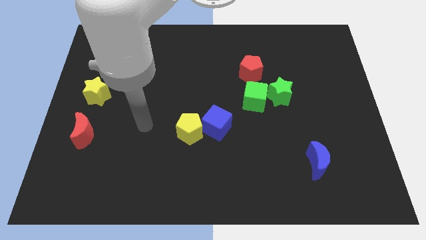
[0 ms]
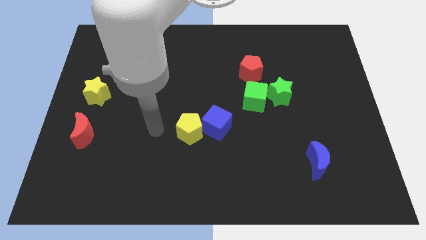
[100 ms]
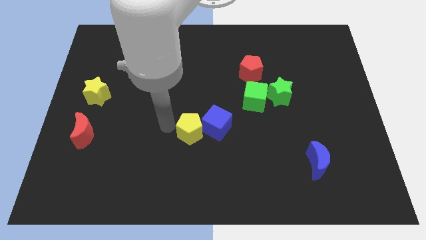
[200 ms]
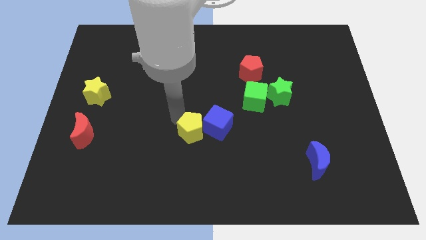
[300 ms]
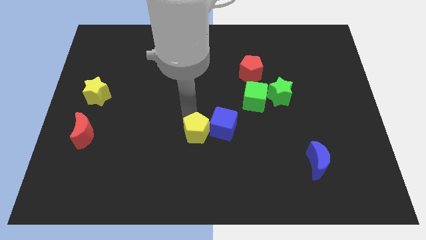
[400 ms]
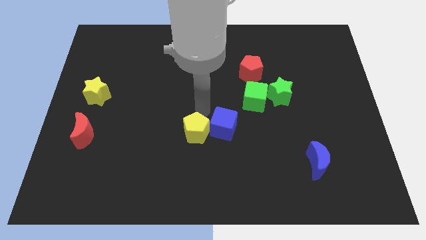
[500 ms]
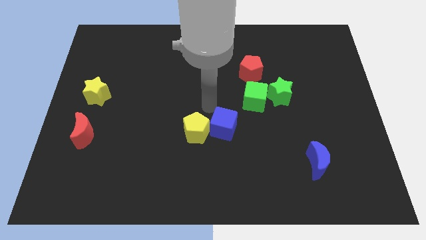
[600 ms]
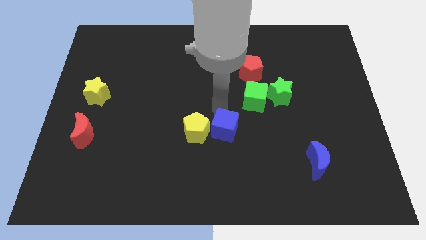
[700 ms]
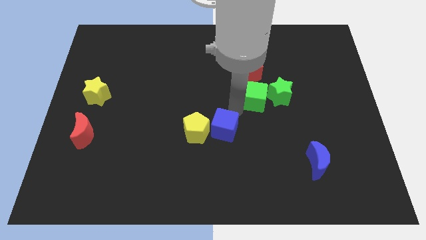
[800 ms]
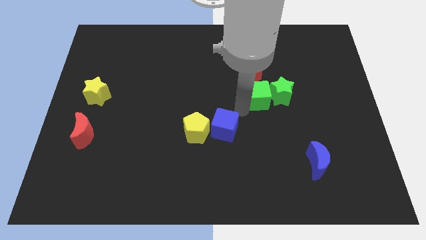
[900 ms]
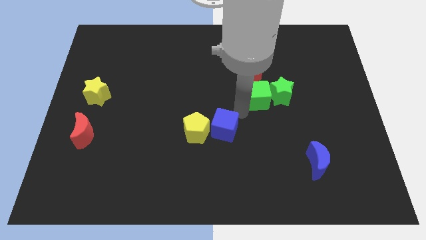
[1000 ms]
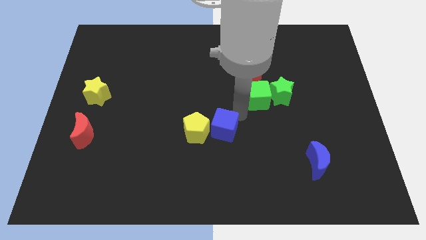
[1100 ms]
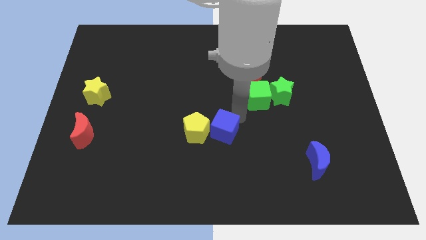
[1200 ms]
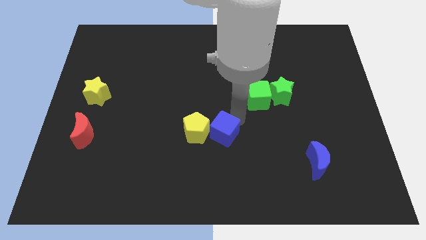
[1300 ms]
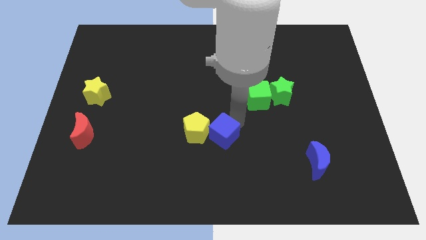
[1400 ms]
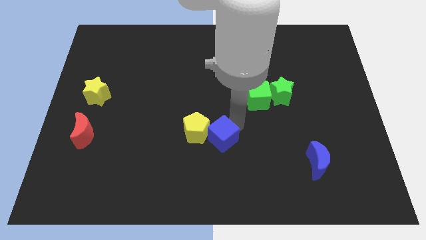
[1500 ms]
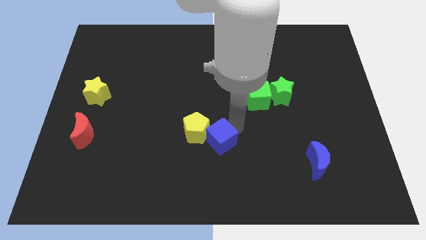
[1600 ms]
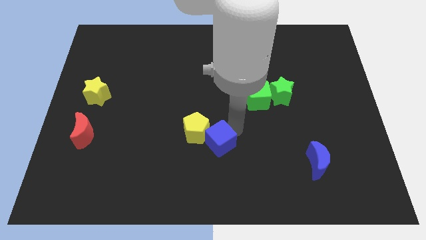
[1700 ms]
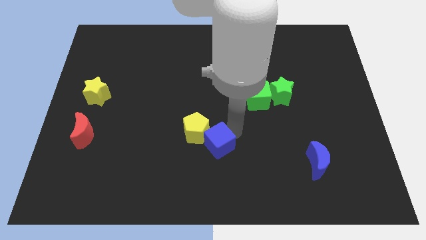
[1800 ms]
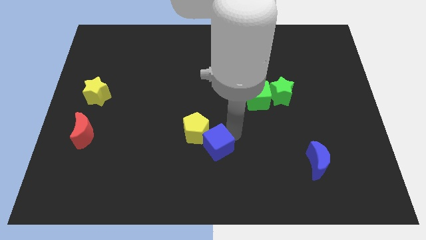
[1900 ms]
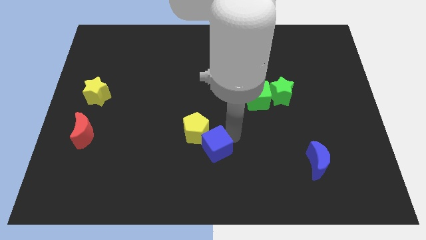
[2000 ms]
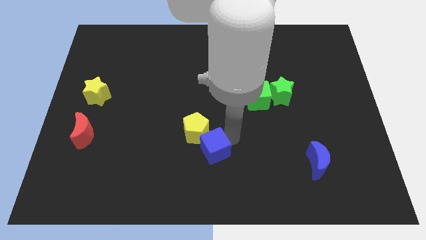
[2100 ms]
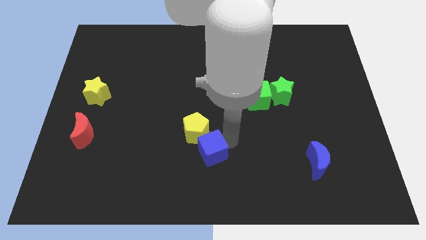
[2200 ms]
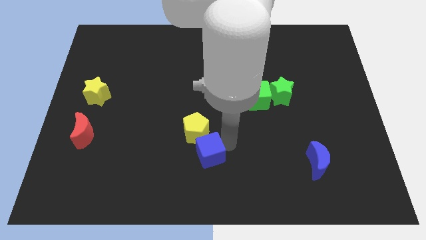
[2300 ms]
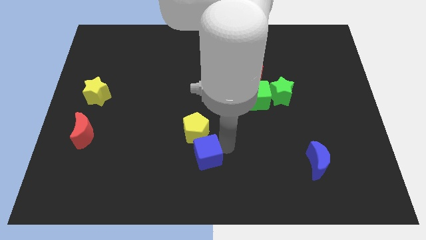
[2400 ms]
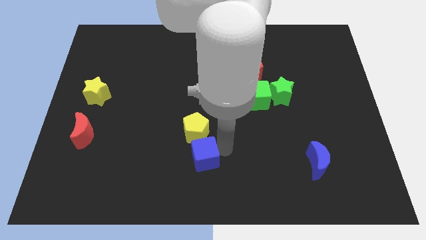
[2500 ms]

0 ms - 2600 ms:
push the blue cube down and to the left diagonally a little bit

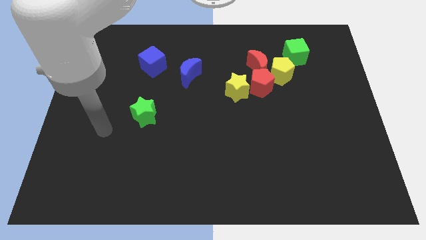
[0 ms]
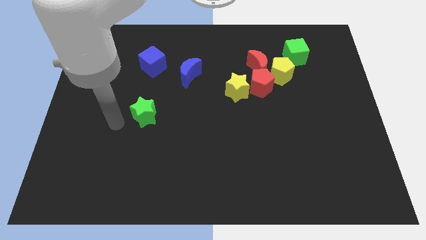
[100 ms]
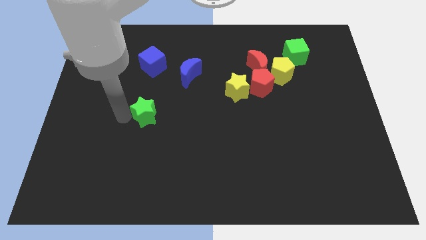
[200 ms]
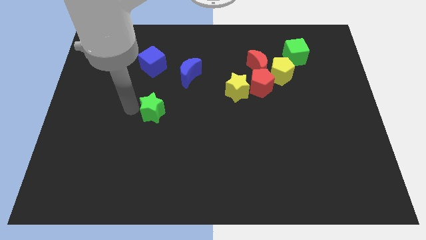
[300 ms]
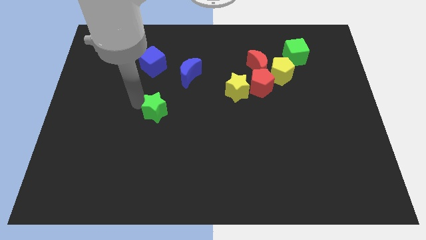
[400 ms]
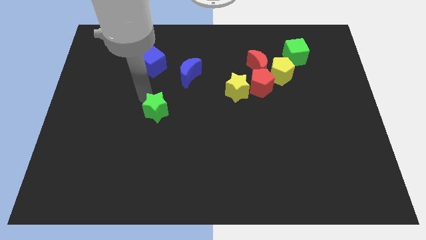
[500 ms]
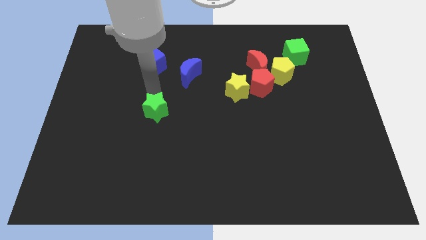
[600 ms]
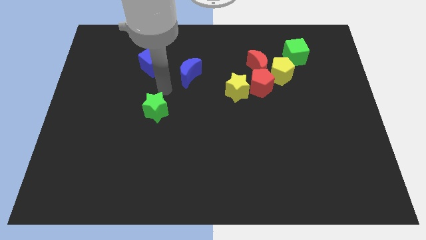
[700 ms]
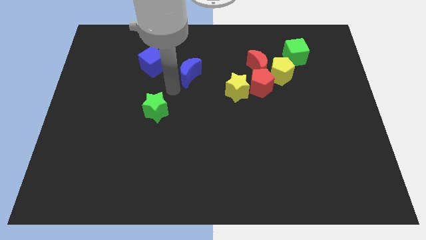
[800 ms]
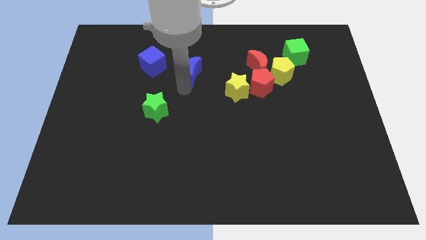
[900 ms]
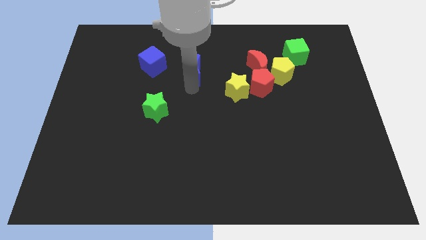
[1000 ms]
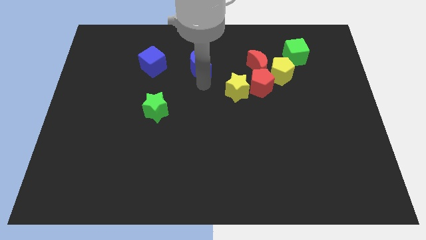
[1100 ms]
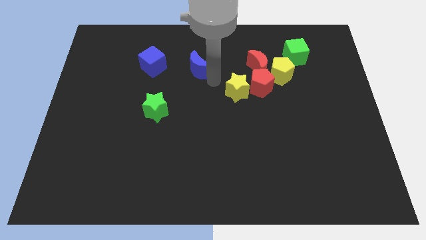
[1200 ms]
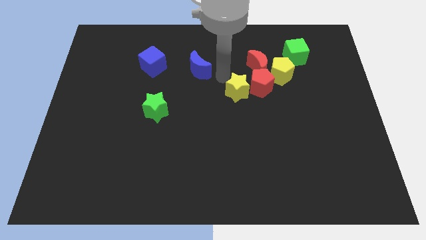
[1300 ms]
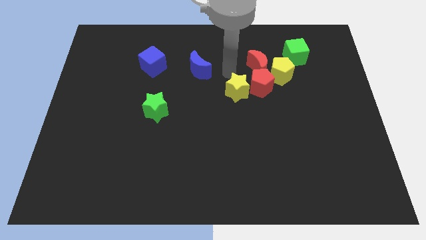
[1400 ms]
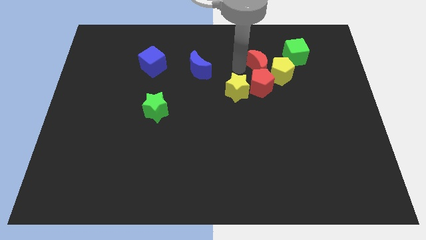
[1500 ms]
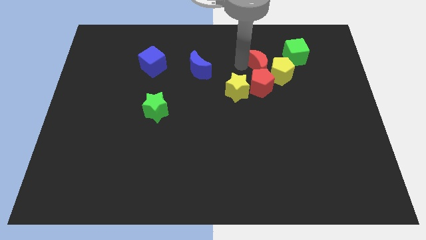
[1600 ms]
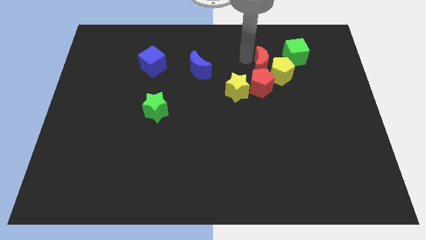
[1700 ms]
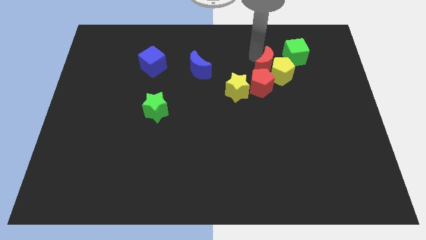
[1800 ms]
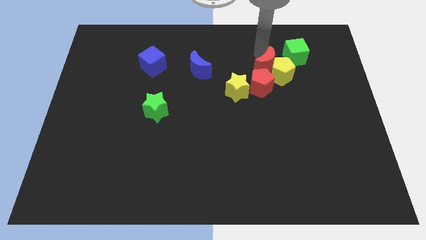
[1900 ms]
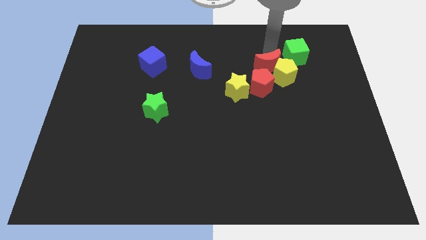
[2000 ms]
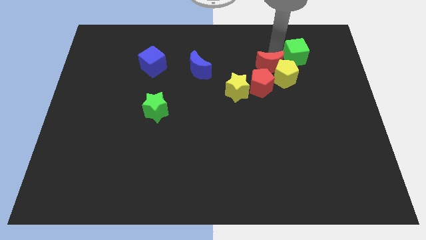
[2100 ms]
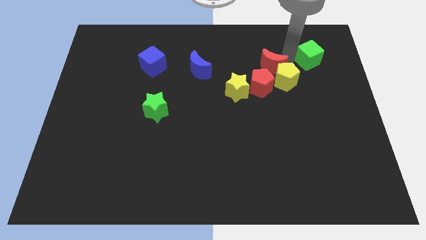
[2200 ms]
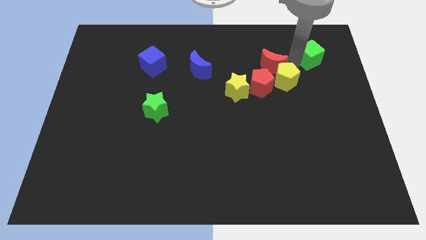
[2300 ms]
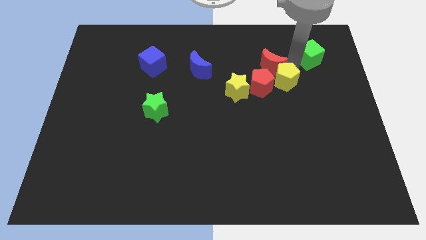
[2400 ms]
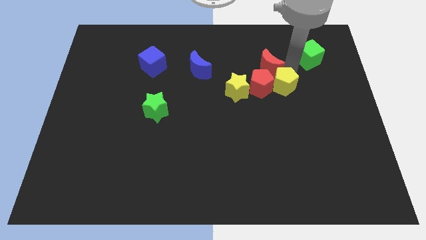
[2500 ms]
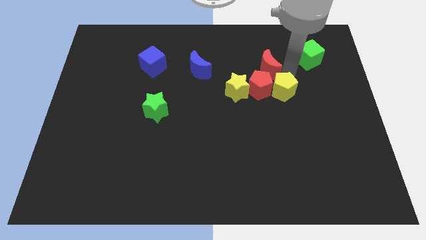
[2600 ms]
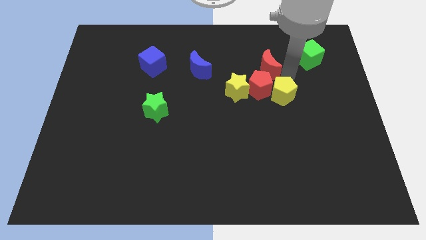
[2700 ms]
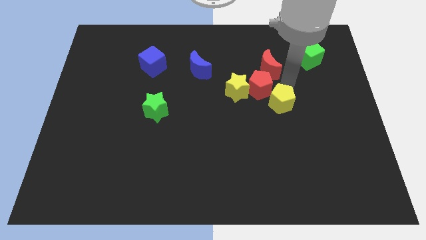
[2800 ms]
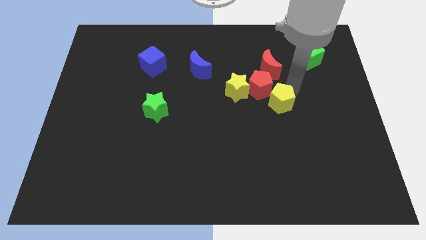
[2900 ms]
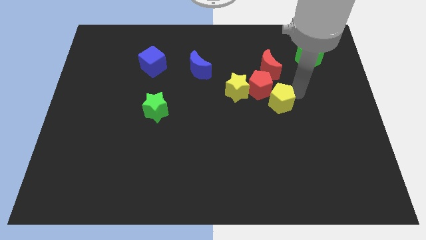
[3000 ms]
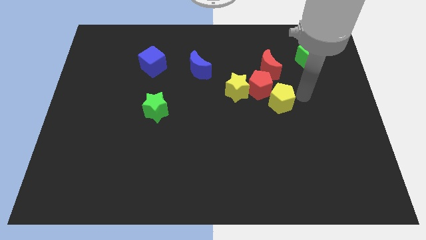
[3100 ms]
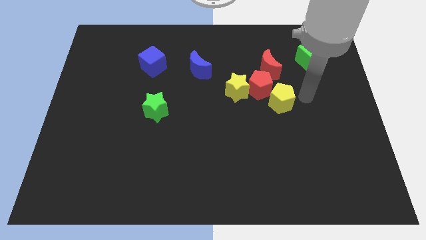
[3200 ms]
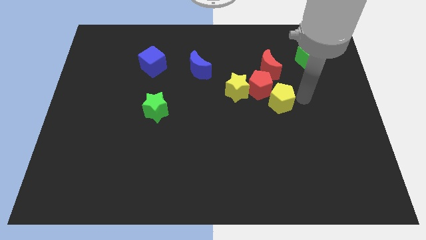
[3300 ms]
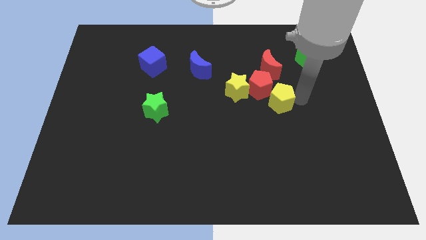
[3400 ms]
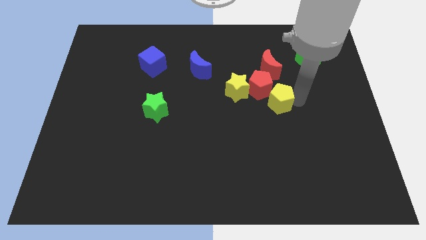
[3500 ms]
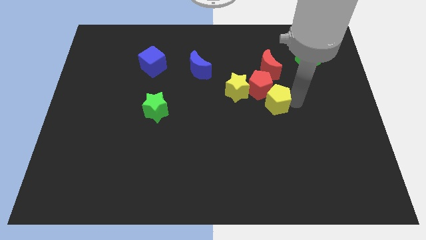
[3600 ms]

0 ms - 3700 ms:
slide the yellow pentagon slightly down and then left

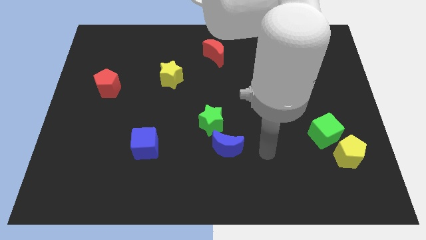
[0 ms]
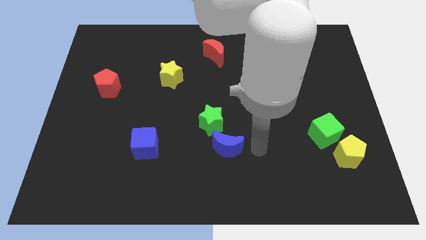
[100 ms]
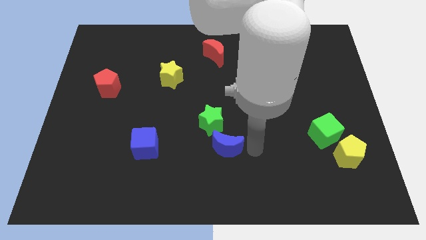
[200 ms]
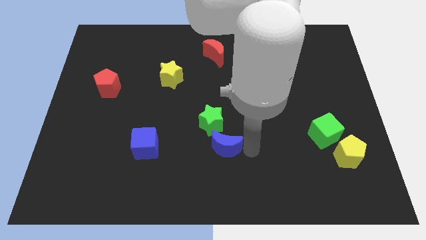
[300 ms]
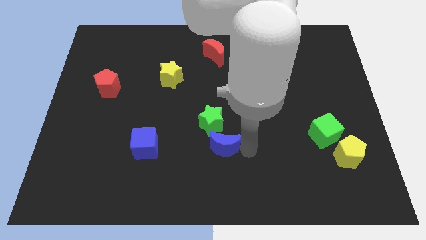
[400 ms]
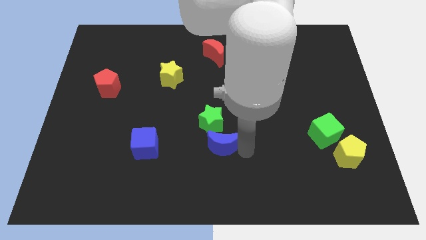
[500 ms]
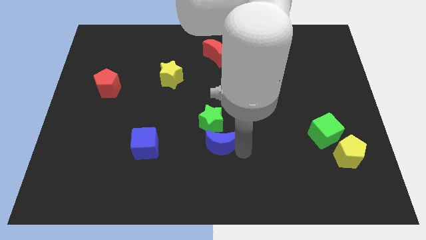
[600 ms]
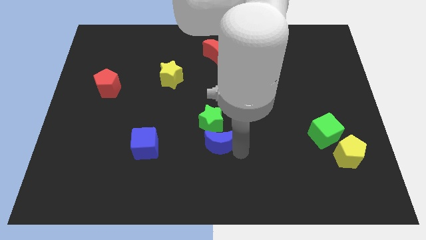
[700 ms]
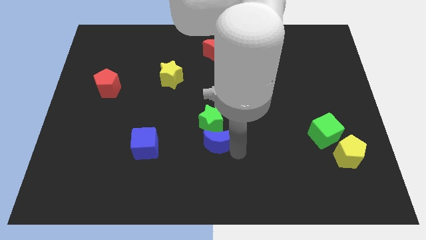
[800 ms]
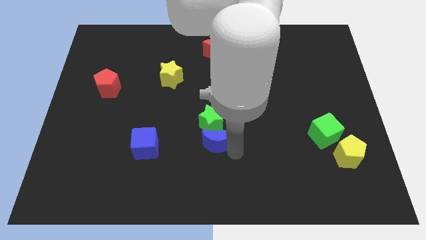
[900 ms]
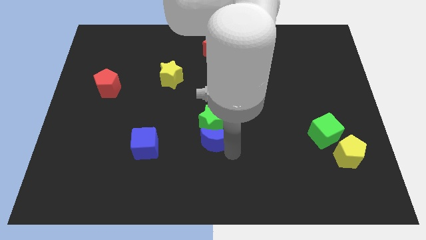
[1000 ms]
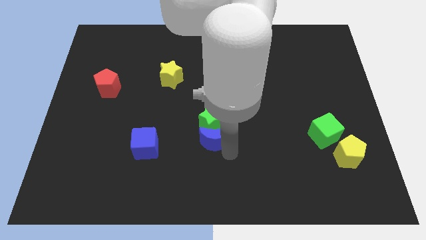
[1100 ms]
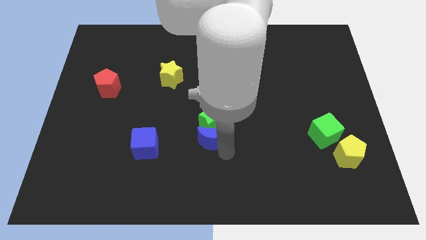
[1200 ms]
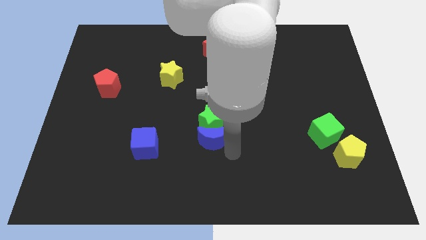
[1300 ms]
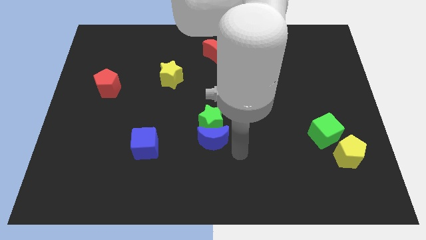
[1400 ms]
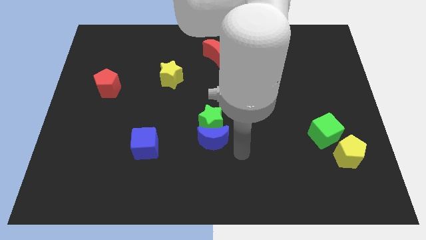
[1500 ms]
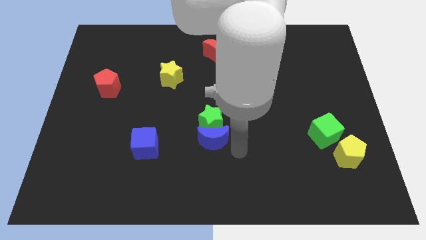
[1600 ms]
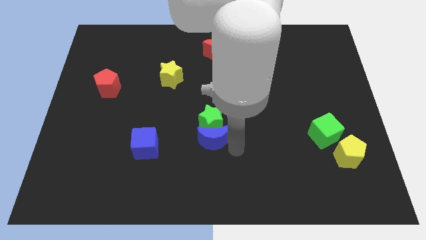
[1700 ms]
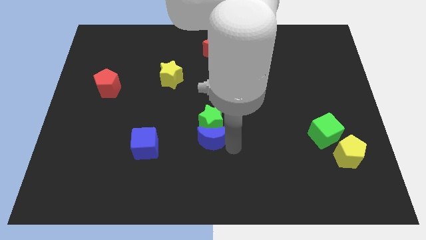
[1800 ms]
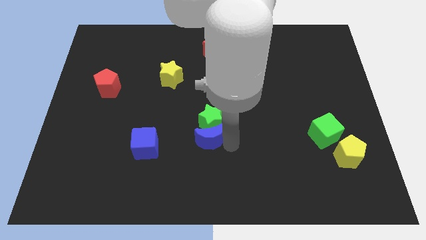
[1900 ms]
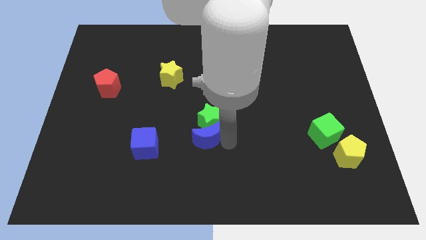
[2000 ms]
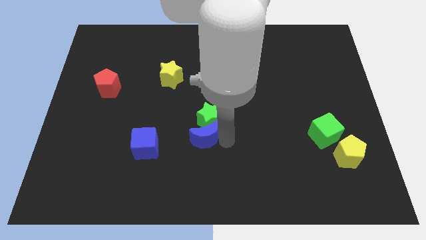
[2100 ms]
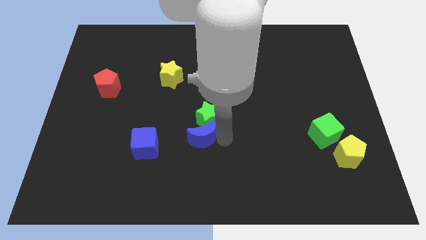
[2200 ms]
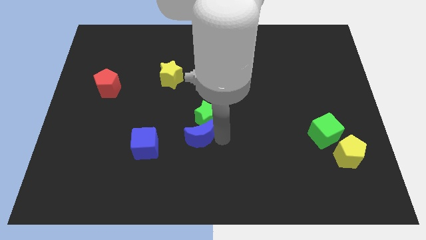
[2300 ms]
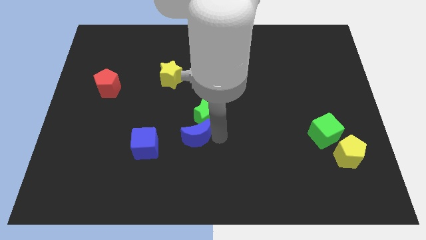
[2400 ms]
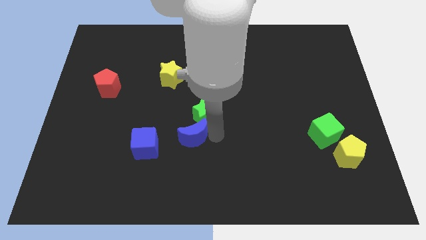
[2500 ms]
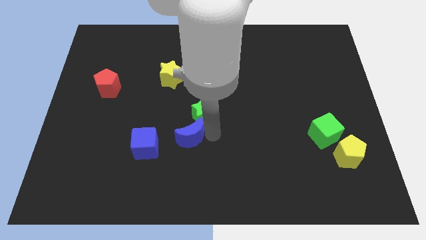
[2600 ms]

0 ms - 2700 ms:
slightly move the blue moon up and then left
